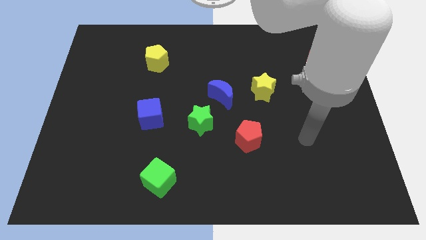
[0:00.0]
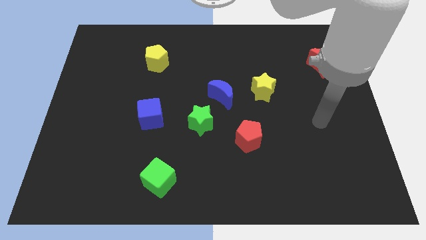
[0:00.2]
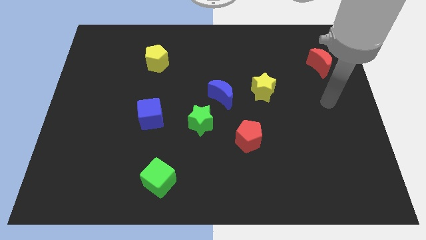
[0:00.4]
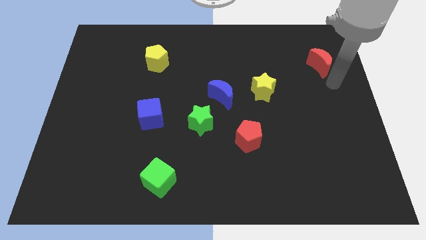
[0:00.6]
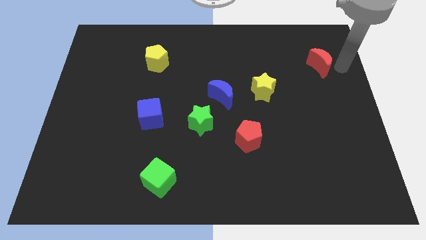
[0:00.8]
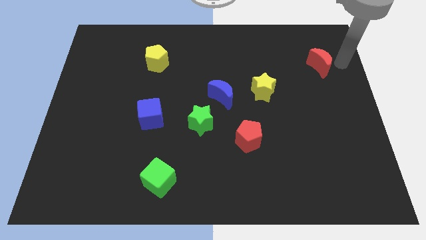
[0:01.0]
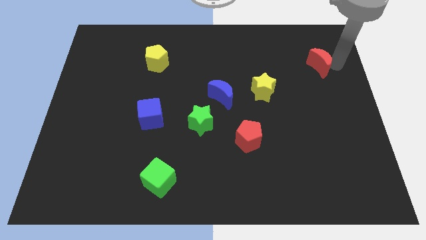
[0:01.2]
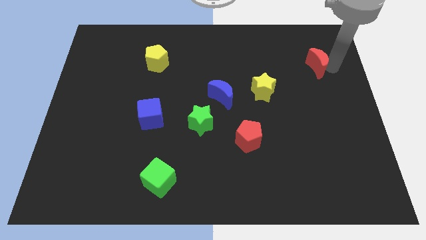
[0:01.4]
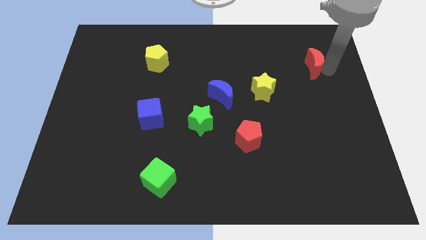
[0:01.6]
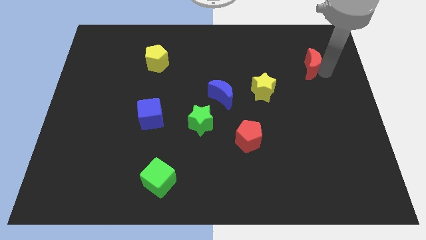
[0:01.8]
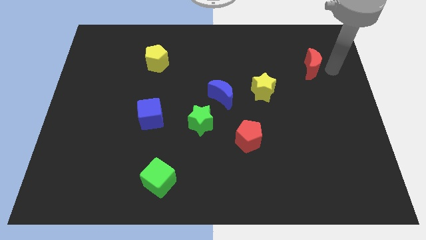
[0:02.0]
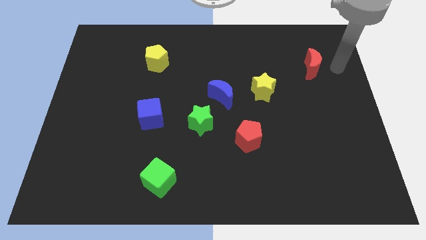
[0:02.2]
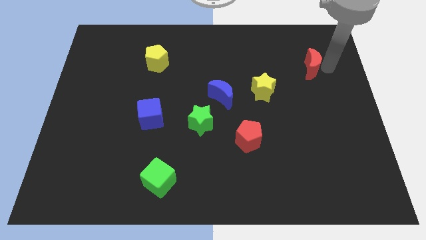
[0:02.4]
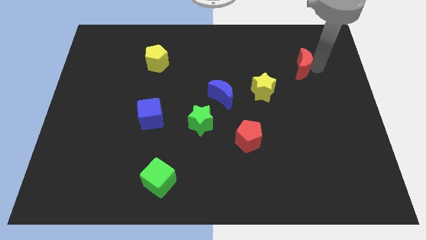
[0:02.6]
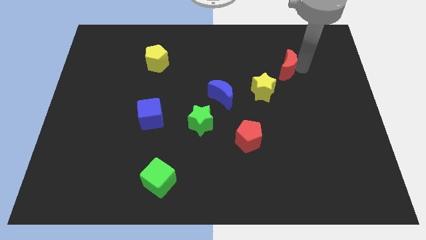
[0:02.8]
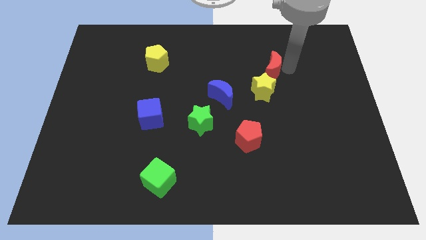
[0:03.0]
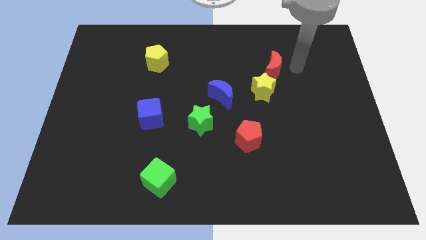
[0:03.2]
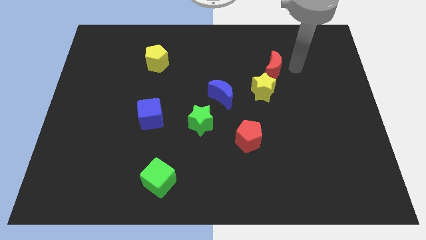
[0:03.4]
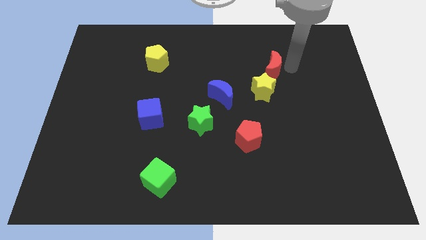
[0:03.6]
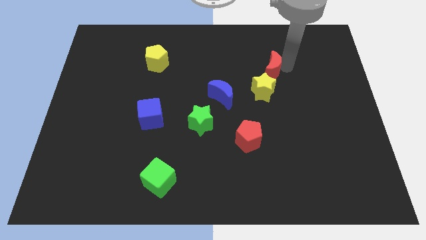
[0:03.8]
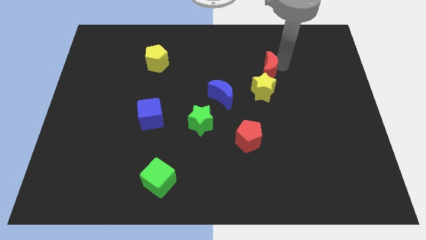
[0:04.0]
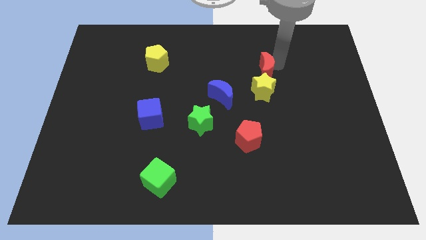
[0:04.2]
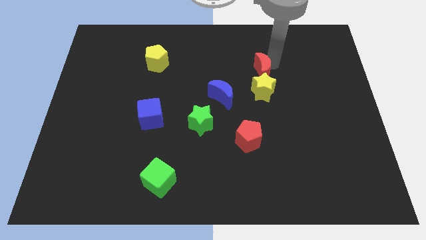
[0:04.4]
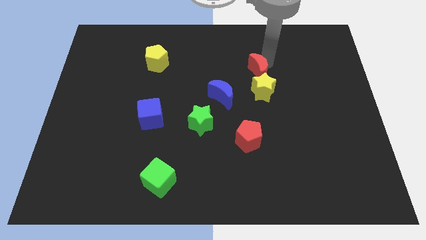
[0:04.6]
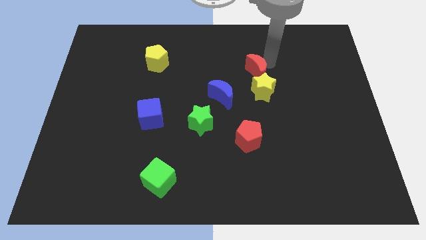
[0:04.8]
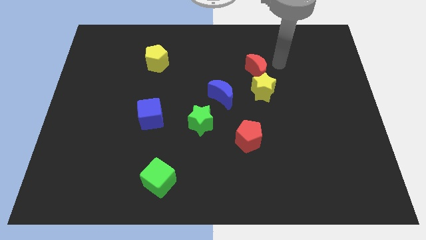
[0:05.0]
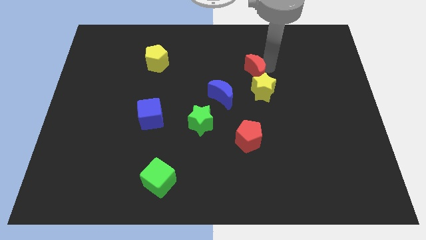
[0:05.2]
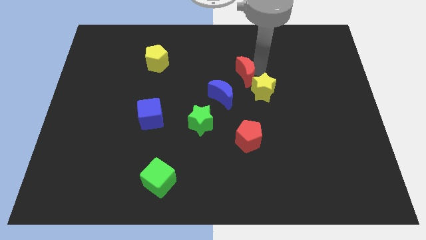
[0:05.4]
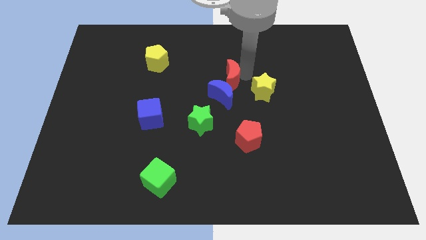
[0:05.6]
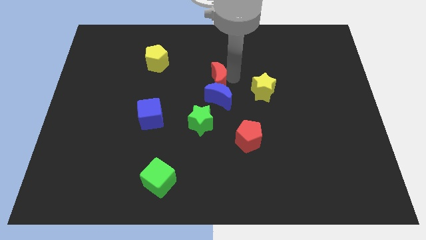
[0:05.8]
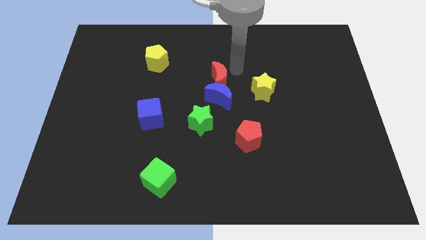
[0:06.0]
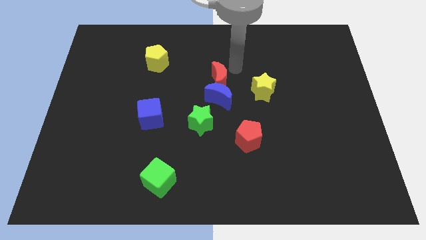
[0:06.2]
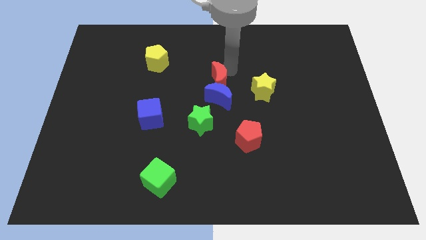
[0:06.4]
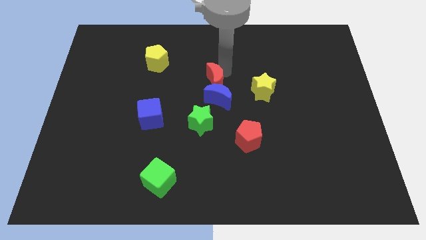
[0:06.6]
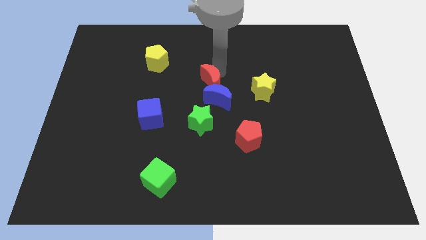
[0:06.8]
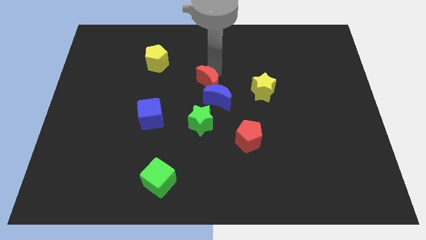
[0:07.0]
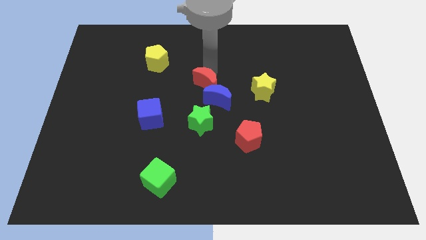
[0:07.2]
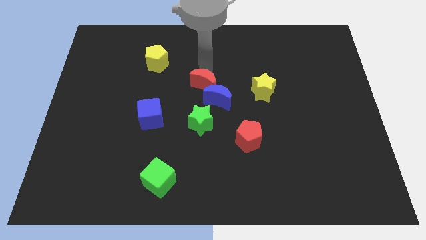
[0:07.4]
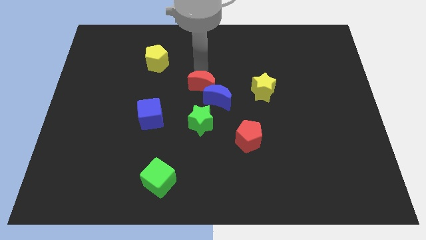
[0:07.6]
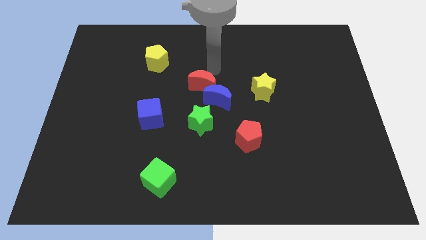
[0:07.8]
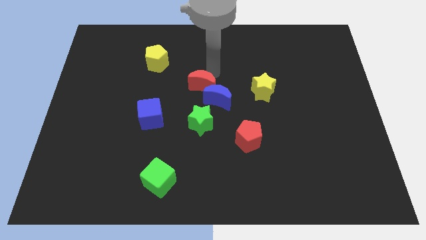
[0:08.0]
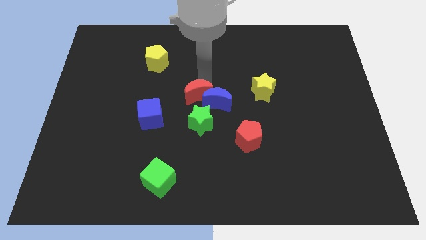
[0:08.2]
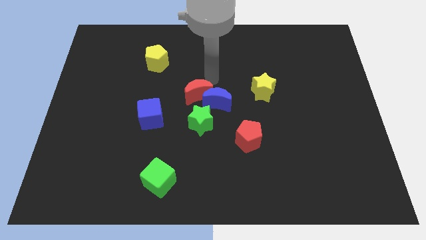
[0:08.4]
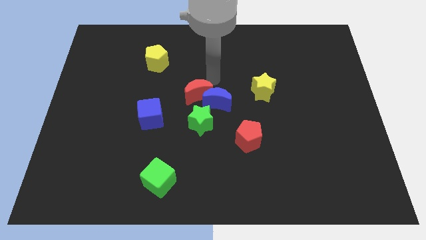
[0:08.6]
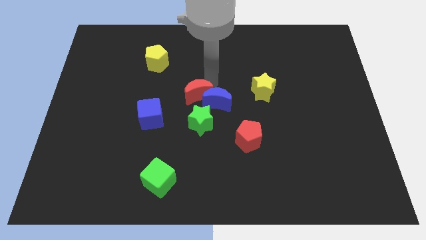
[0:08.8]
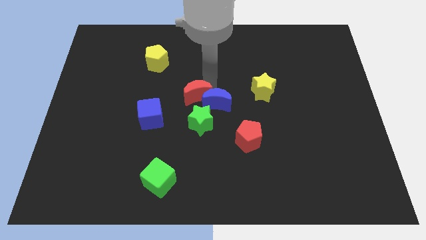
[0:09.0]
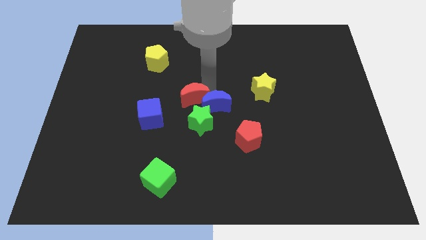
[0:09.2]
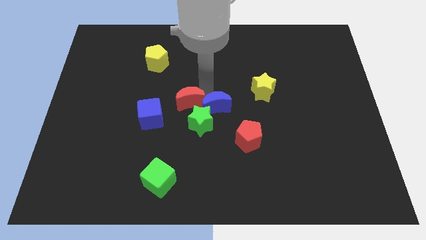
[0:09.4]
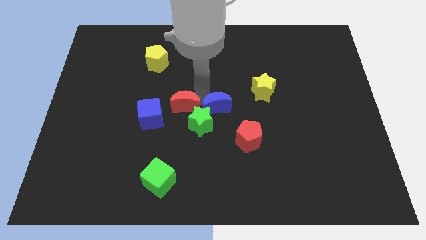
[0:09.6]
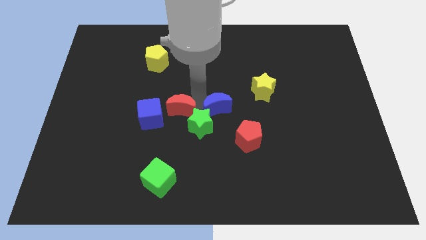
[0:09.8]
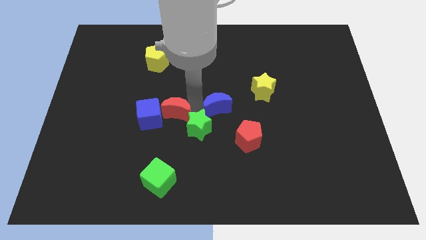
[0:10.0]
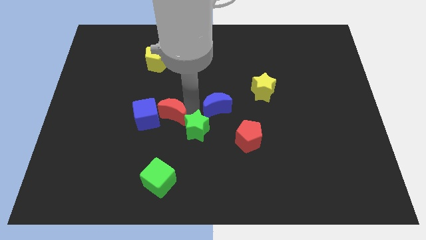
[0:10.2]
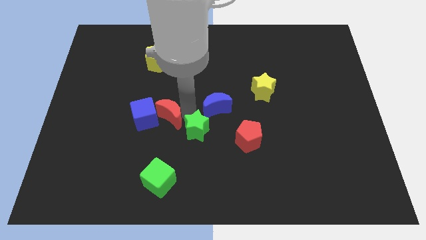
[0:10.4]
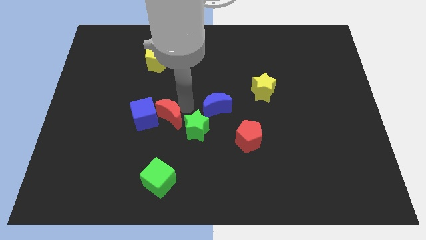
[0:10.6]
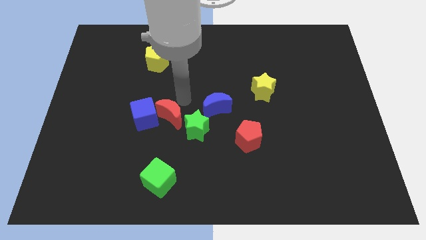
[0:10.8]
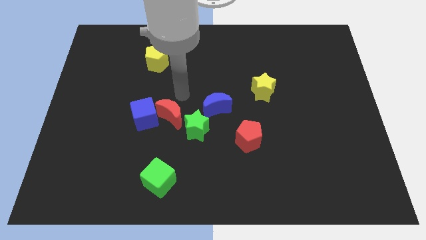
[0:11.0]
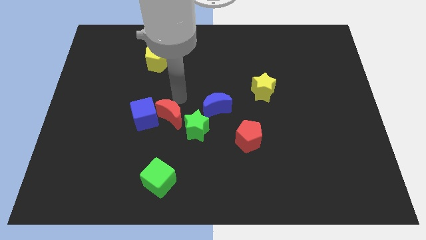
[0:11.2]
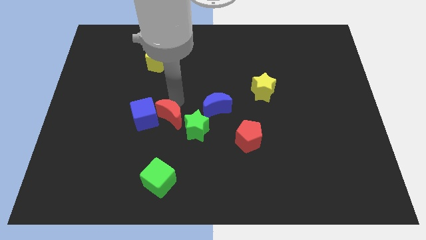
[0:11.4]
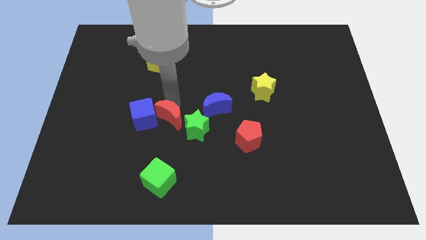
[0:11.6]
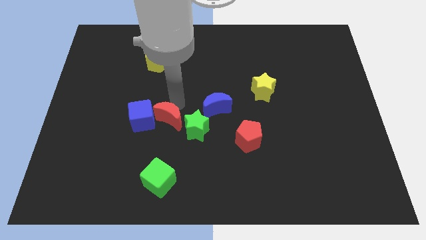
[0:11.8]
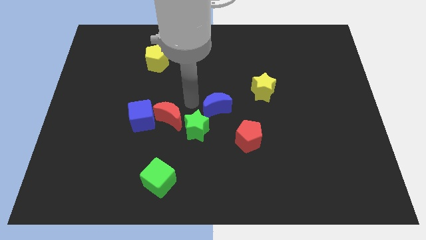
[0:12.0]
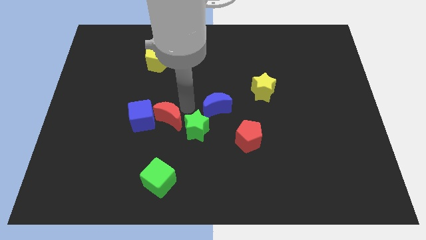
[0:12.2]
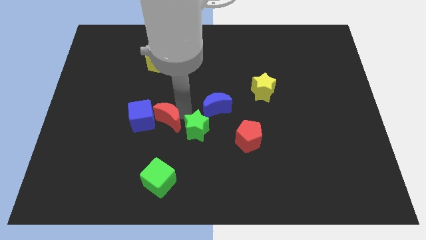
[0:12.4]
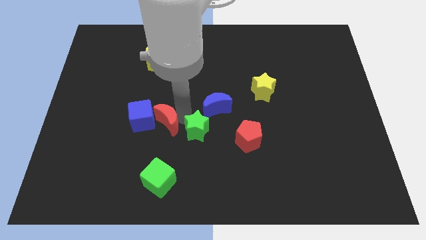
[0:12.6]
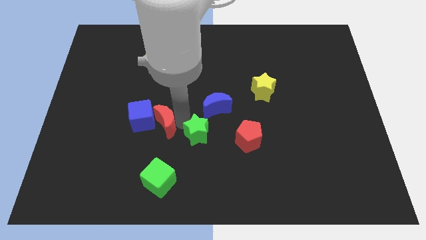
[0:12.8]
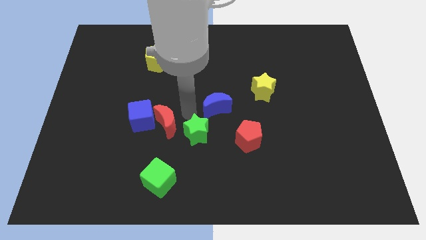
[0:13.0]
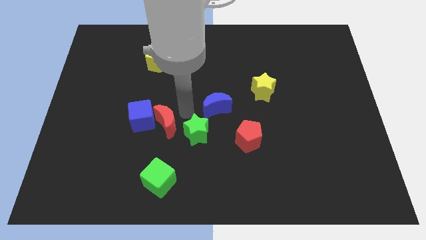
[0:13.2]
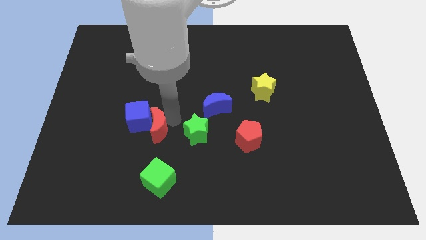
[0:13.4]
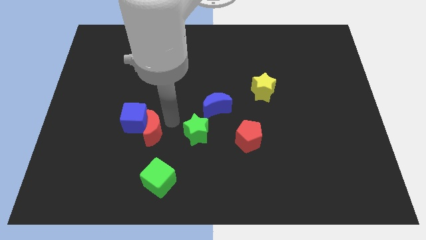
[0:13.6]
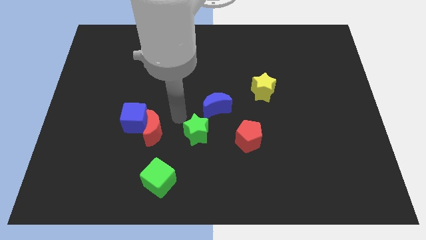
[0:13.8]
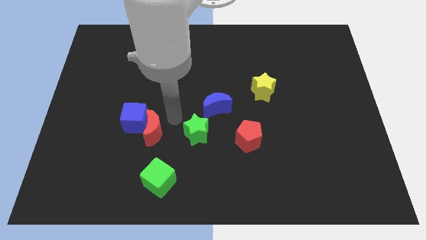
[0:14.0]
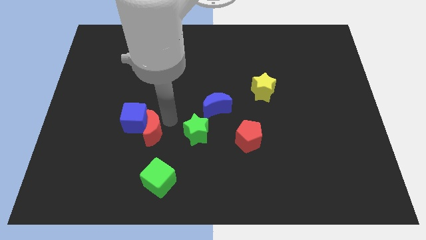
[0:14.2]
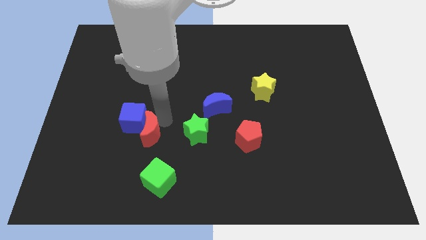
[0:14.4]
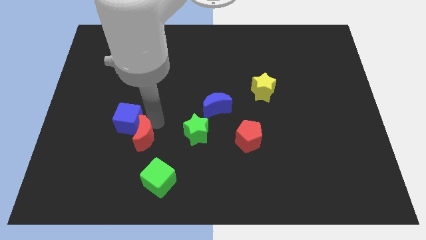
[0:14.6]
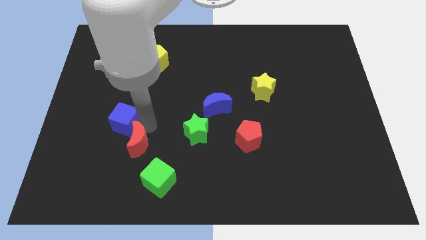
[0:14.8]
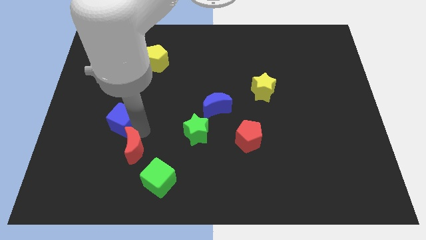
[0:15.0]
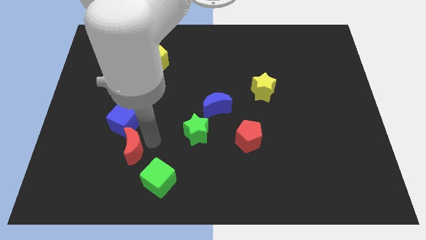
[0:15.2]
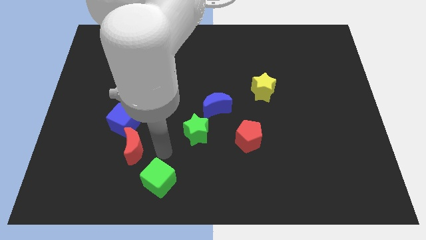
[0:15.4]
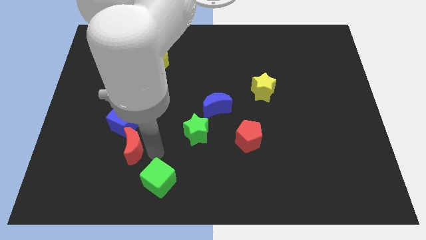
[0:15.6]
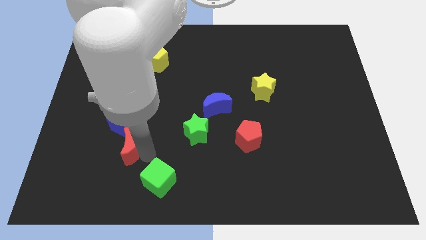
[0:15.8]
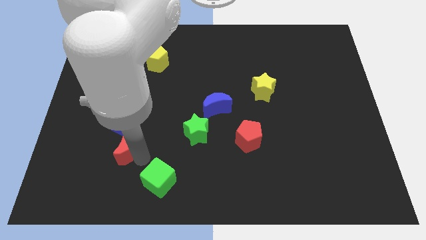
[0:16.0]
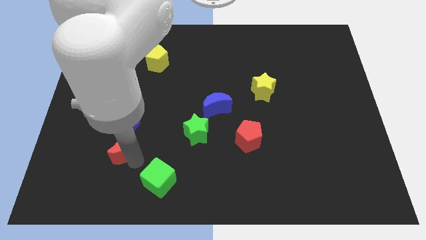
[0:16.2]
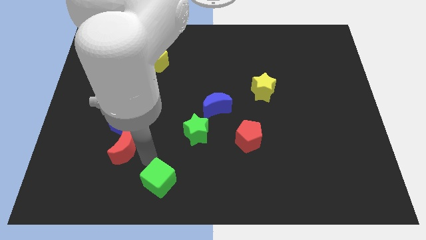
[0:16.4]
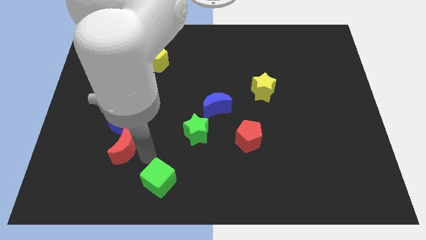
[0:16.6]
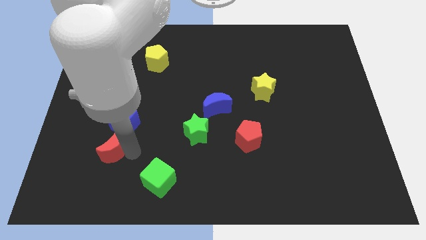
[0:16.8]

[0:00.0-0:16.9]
put the red moon to the bottom left of the blue cube
